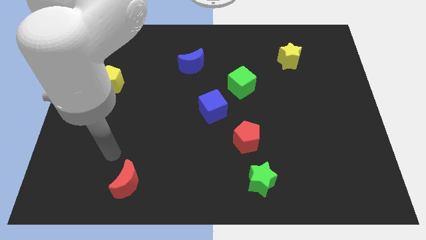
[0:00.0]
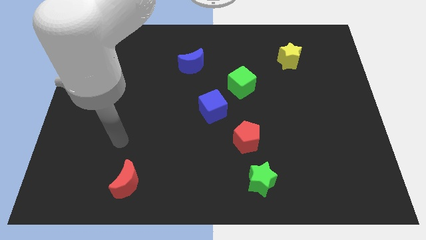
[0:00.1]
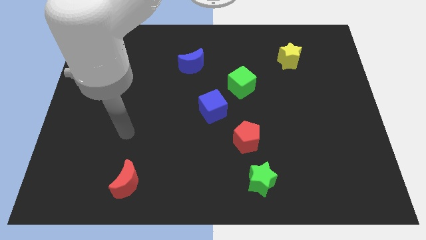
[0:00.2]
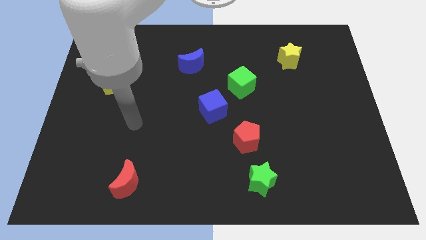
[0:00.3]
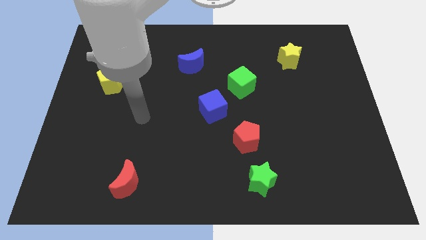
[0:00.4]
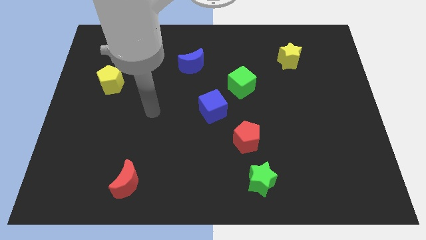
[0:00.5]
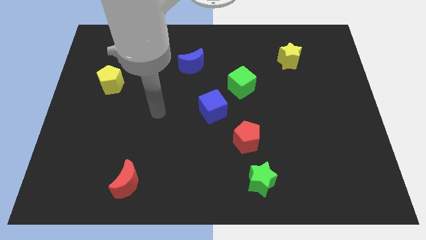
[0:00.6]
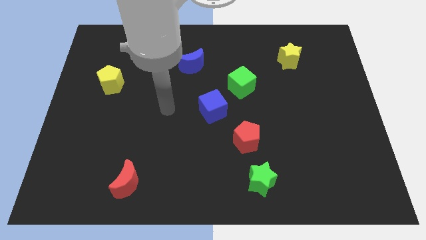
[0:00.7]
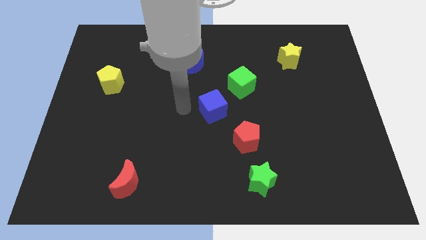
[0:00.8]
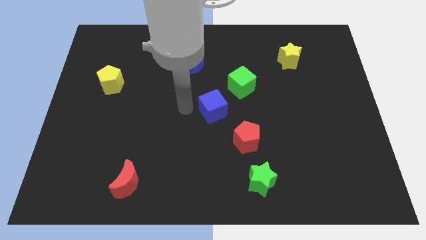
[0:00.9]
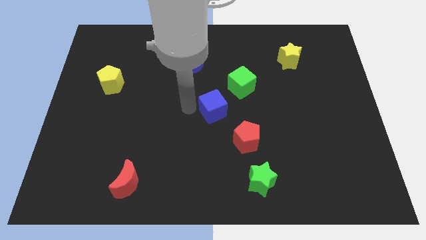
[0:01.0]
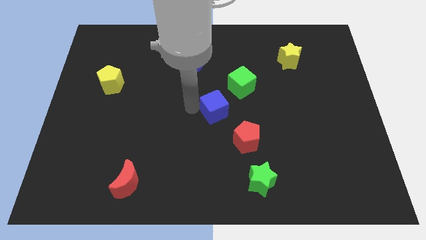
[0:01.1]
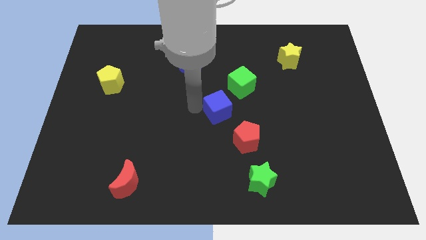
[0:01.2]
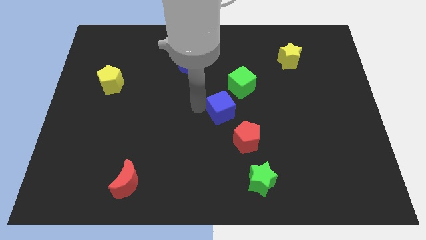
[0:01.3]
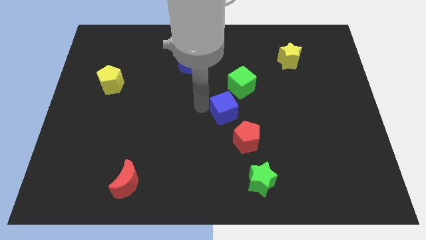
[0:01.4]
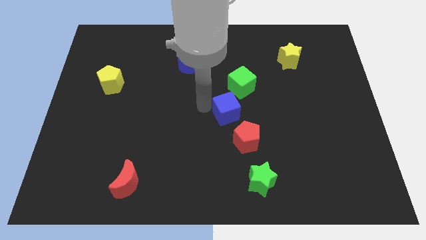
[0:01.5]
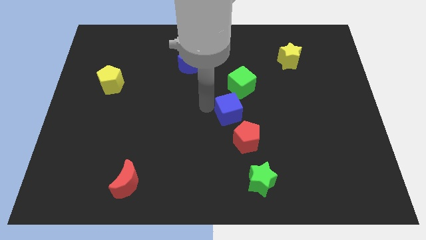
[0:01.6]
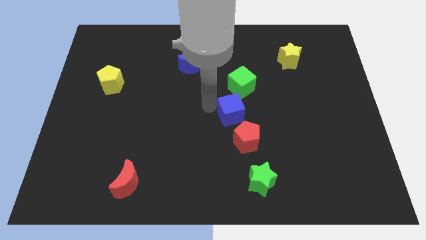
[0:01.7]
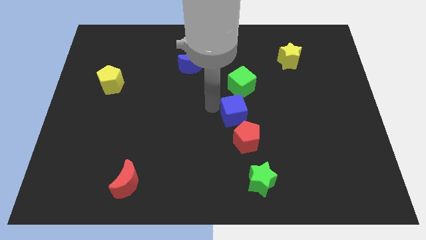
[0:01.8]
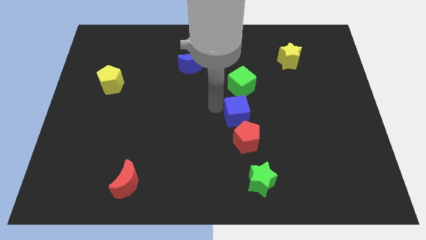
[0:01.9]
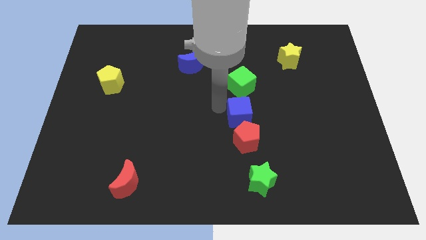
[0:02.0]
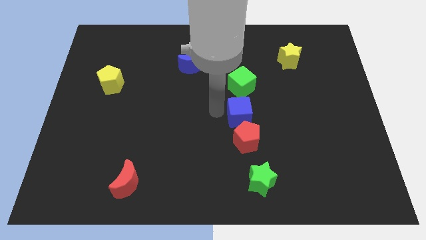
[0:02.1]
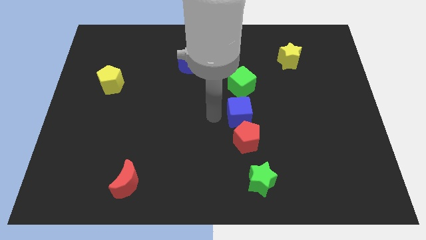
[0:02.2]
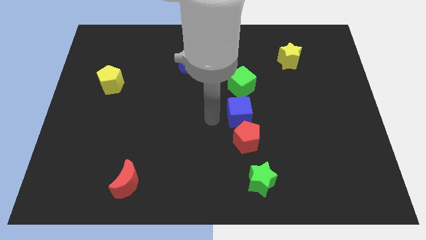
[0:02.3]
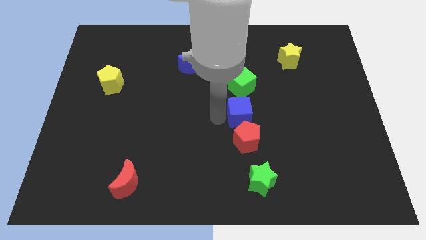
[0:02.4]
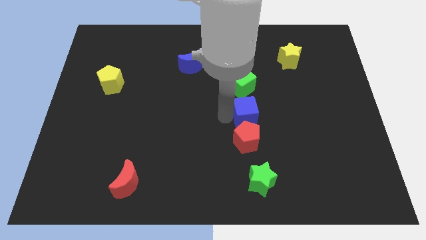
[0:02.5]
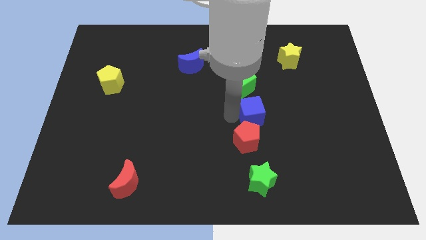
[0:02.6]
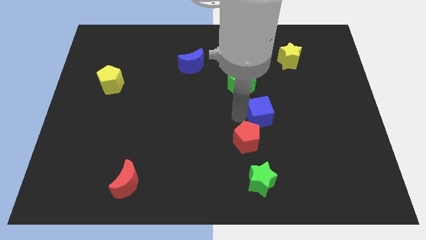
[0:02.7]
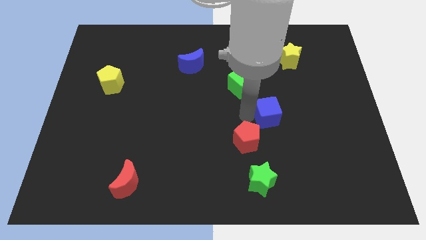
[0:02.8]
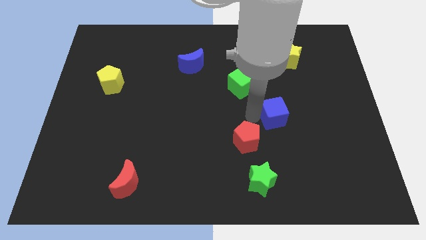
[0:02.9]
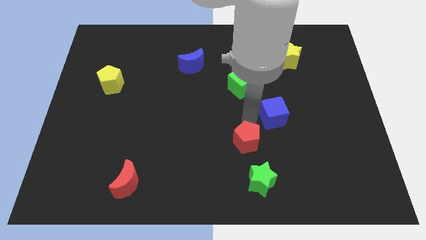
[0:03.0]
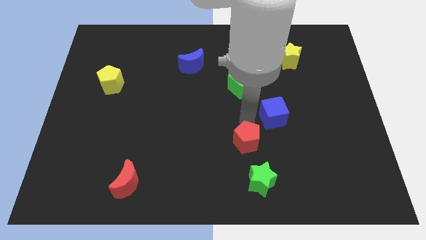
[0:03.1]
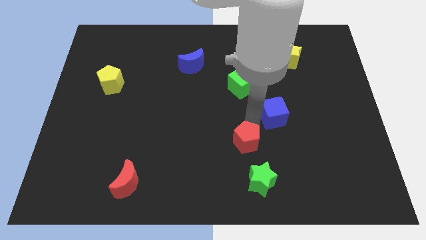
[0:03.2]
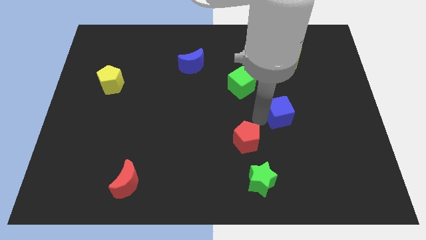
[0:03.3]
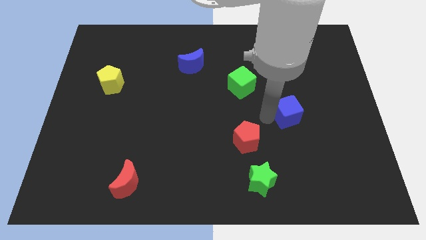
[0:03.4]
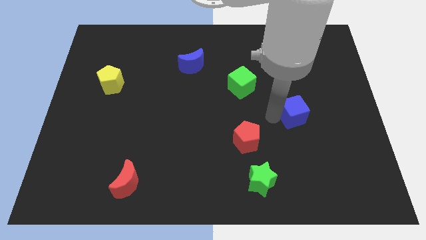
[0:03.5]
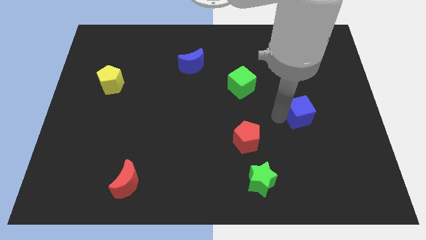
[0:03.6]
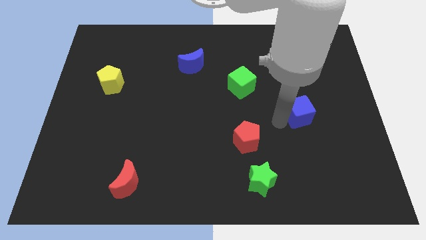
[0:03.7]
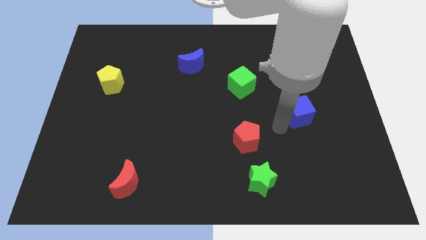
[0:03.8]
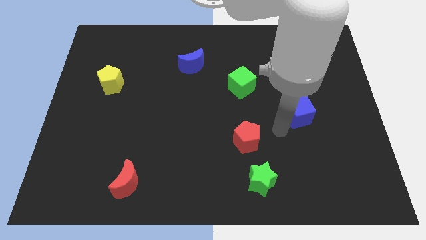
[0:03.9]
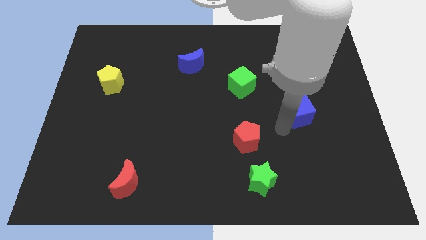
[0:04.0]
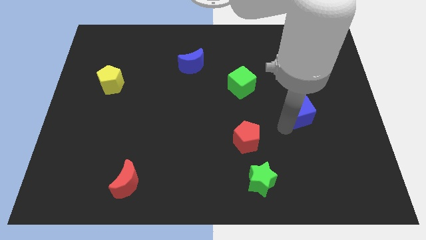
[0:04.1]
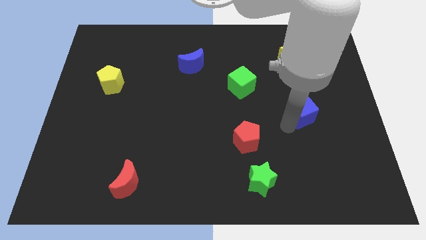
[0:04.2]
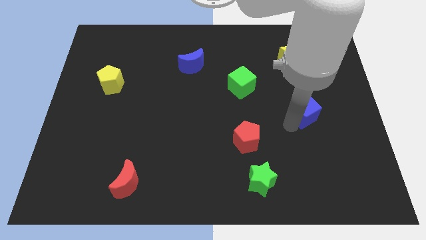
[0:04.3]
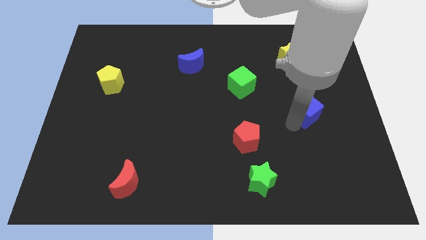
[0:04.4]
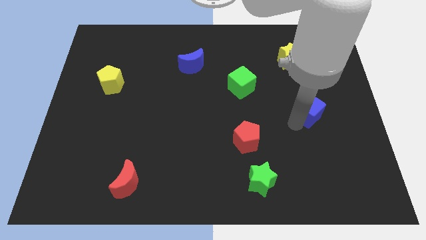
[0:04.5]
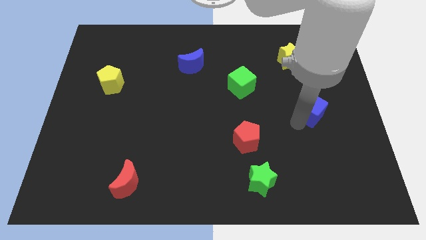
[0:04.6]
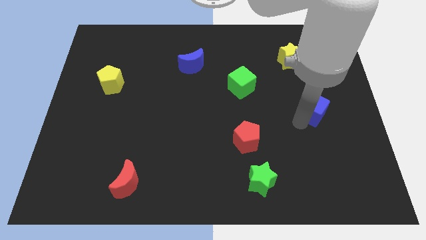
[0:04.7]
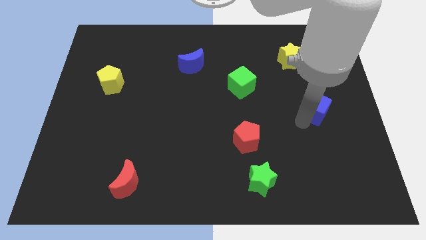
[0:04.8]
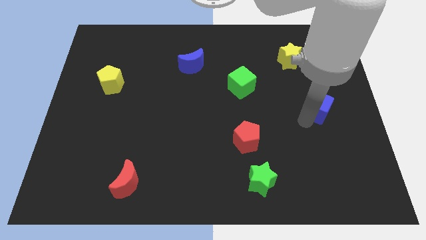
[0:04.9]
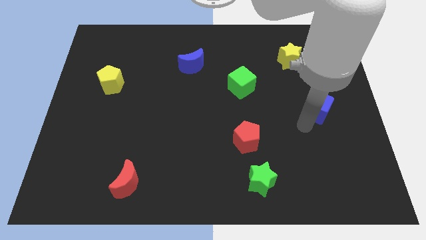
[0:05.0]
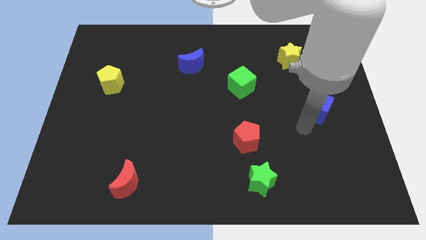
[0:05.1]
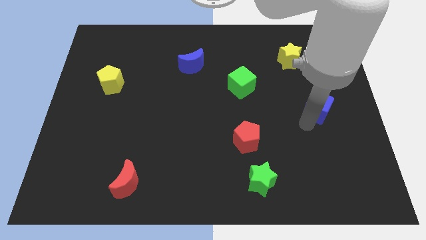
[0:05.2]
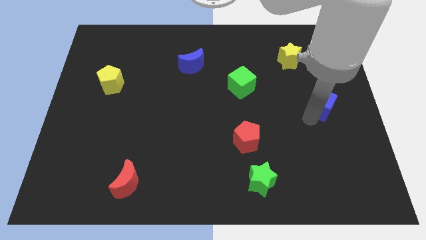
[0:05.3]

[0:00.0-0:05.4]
move the blue cube to the right side of the board
